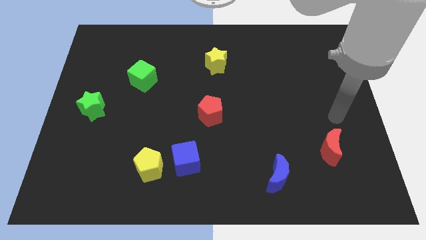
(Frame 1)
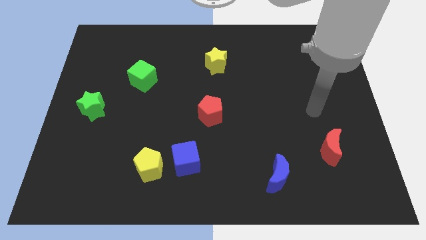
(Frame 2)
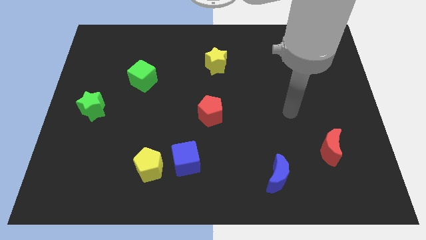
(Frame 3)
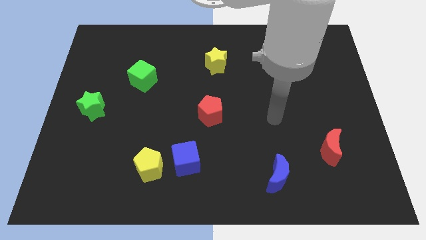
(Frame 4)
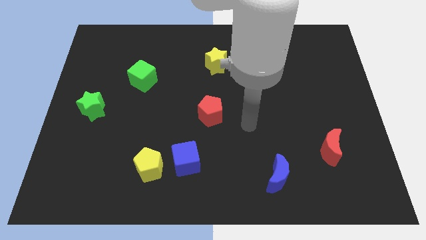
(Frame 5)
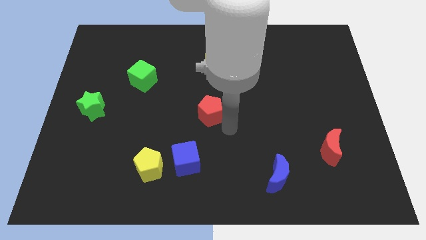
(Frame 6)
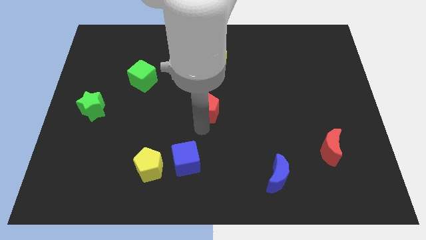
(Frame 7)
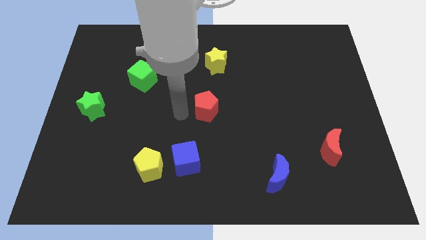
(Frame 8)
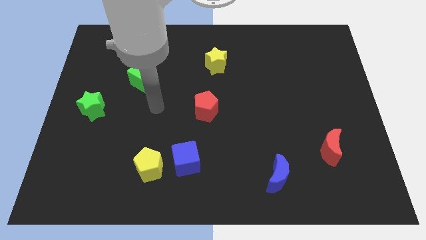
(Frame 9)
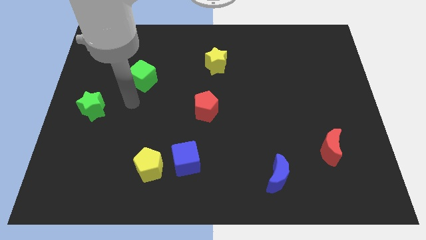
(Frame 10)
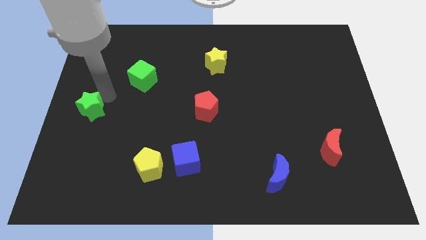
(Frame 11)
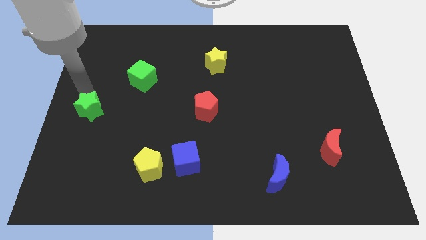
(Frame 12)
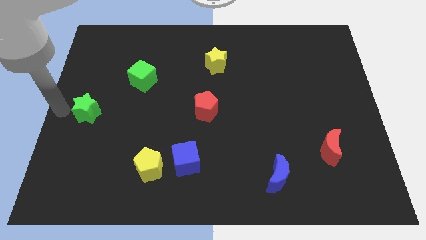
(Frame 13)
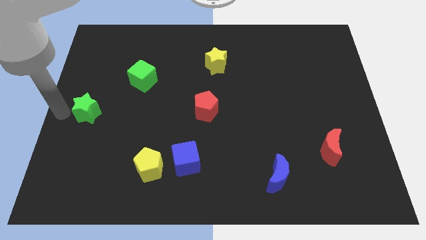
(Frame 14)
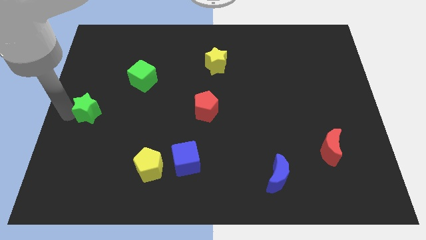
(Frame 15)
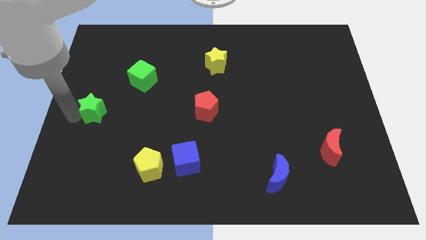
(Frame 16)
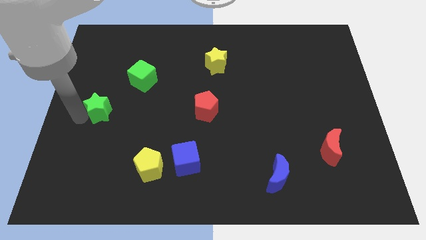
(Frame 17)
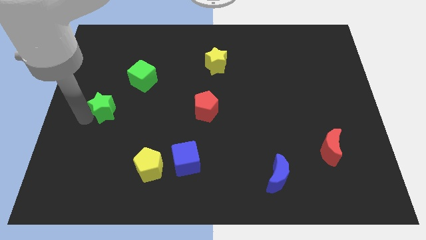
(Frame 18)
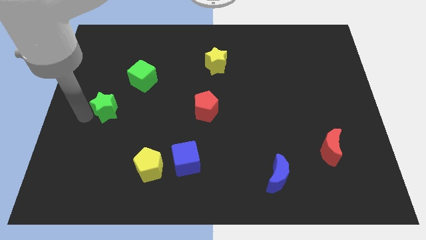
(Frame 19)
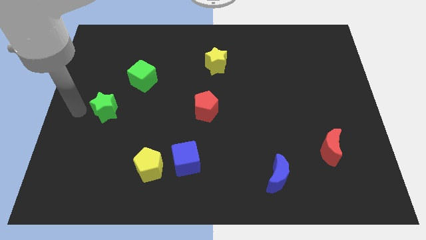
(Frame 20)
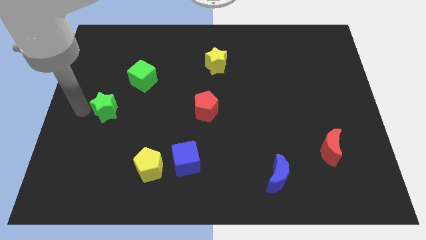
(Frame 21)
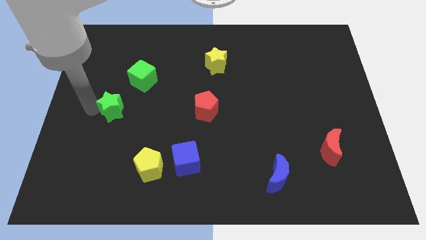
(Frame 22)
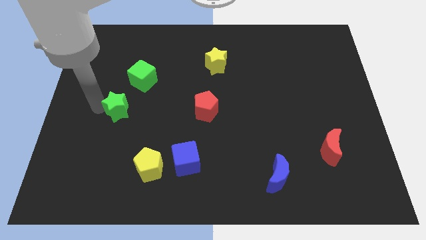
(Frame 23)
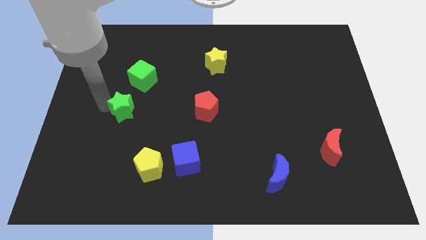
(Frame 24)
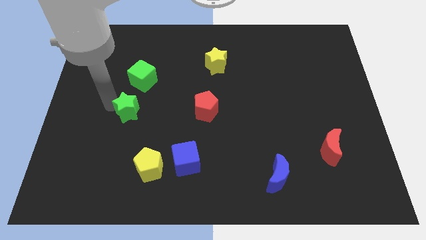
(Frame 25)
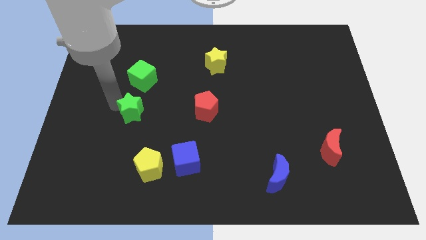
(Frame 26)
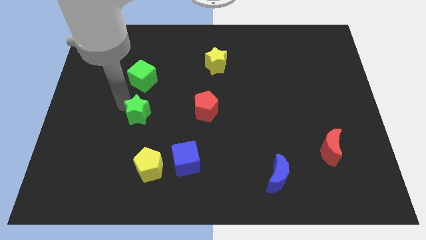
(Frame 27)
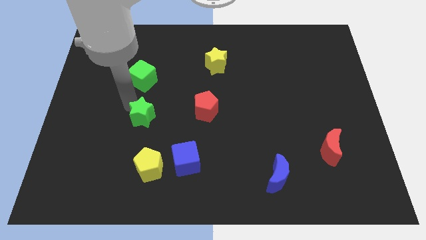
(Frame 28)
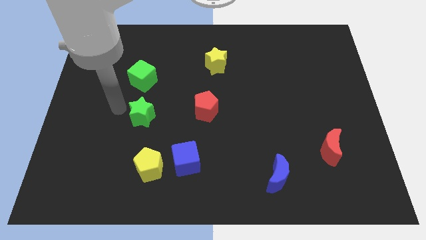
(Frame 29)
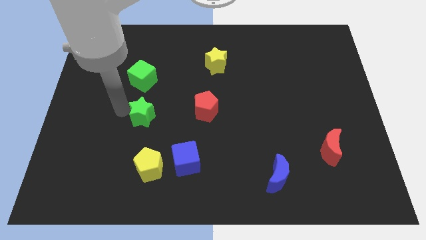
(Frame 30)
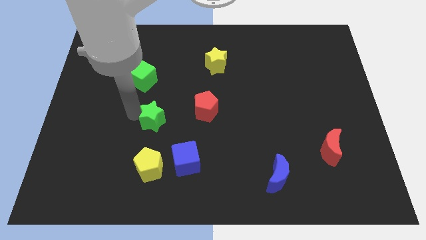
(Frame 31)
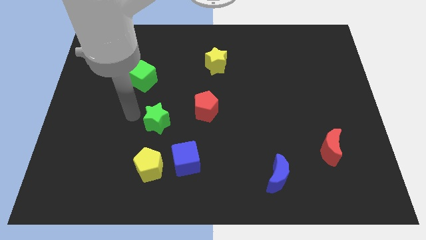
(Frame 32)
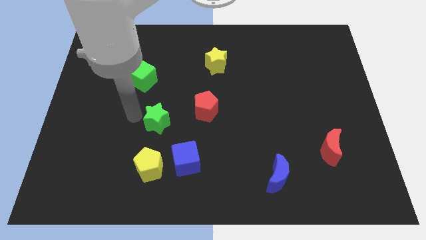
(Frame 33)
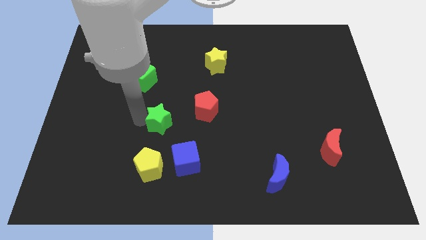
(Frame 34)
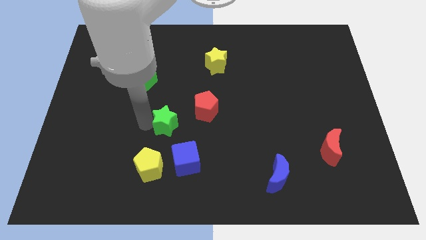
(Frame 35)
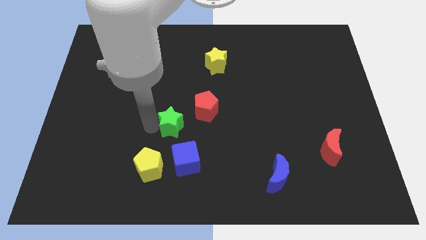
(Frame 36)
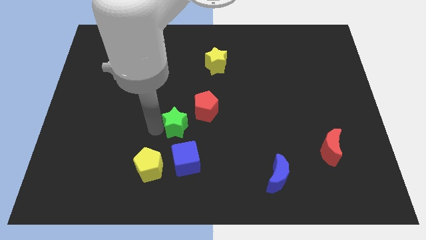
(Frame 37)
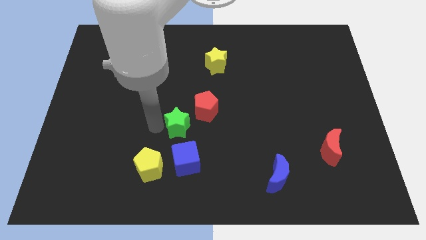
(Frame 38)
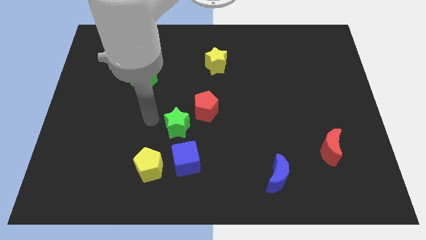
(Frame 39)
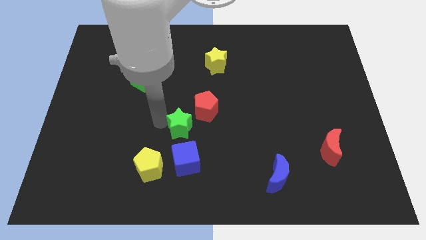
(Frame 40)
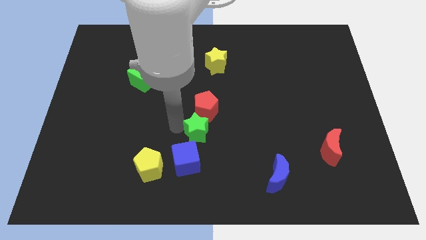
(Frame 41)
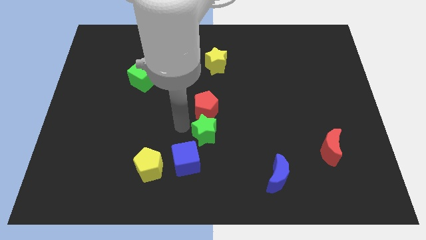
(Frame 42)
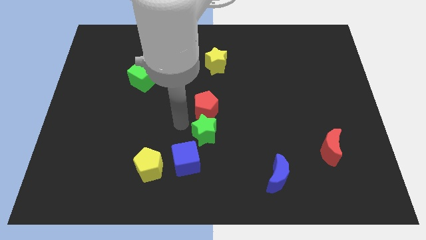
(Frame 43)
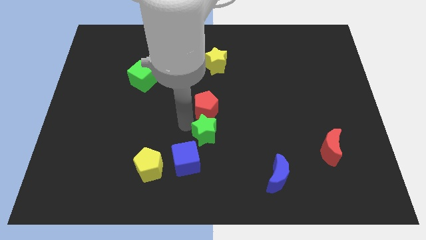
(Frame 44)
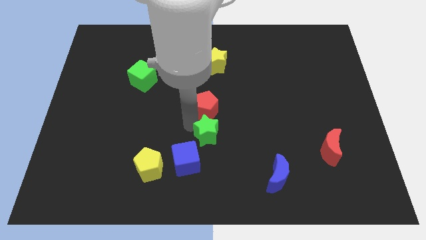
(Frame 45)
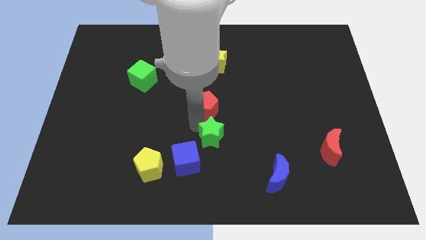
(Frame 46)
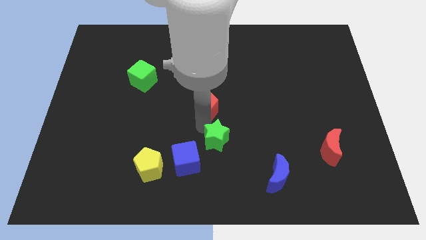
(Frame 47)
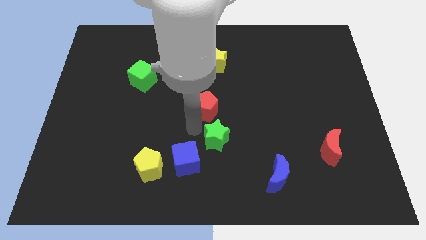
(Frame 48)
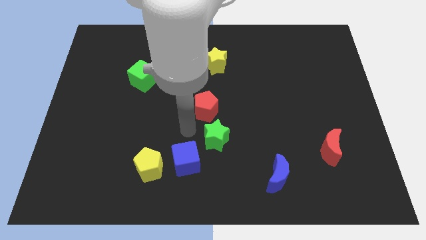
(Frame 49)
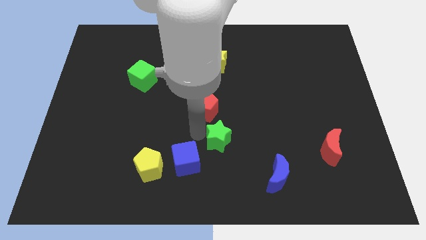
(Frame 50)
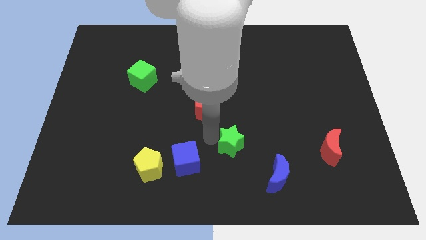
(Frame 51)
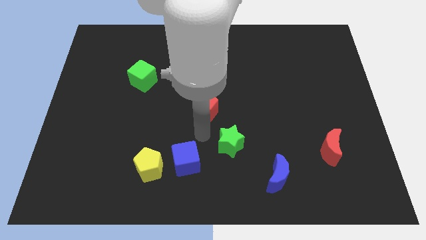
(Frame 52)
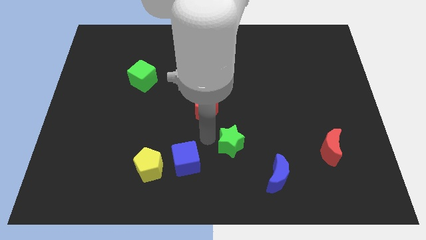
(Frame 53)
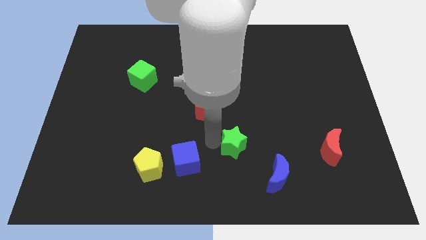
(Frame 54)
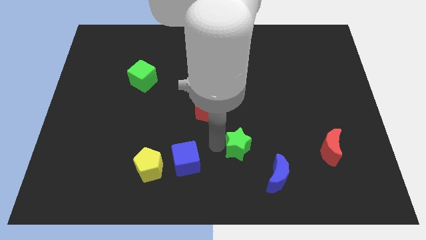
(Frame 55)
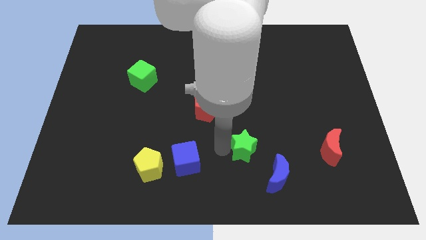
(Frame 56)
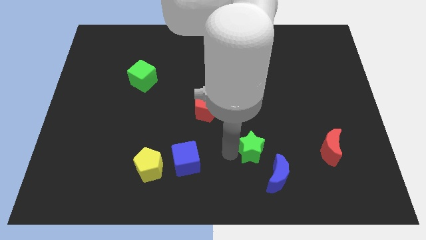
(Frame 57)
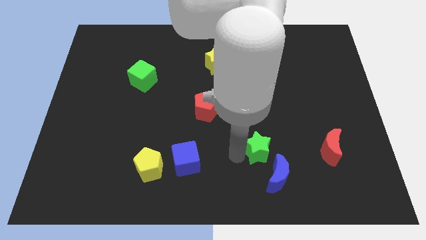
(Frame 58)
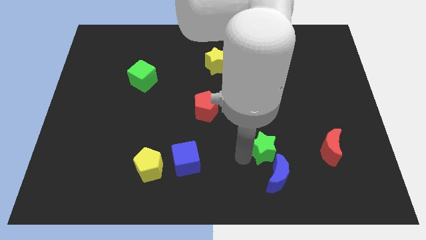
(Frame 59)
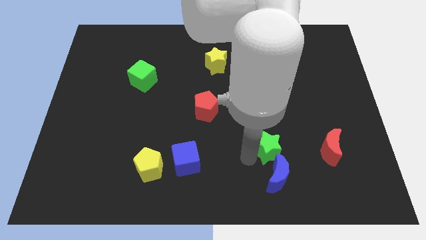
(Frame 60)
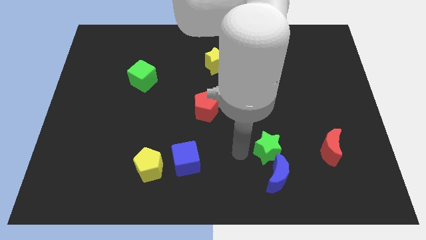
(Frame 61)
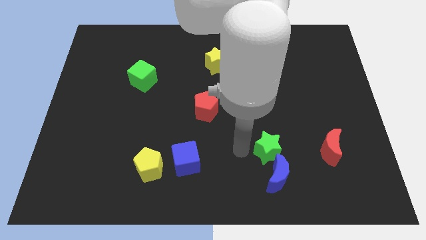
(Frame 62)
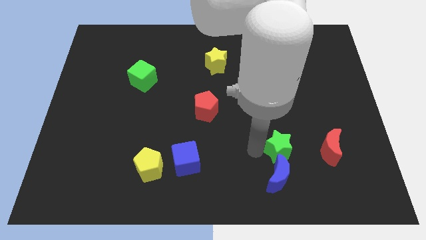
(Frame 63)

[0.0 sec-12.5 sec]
put the green star diagonally up and to the right of the blue moon
